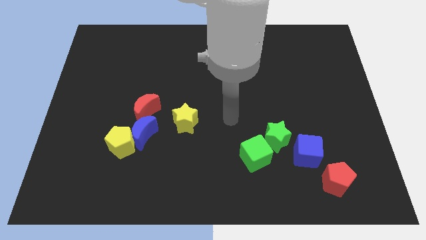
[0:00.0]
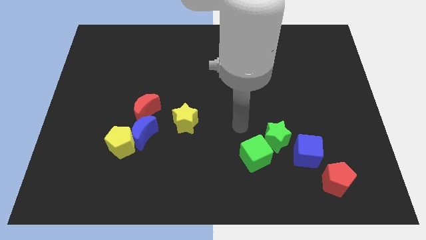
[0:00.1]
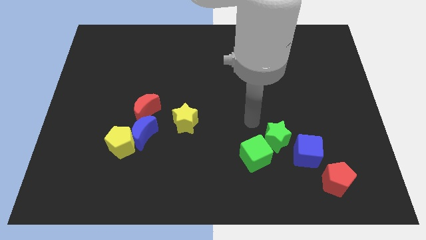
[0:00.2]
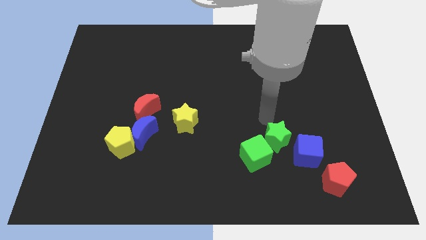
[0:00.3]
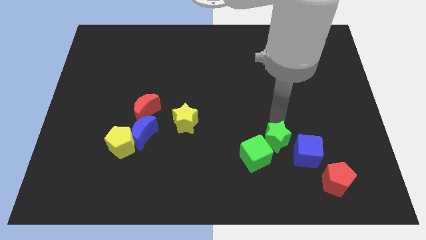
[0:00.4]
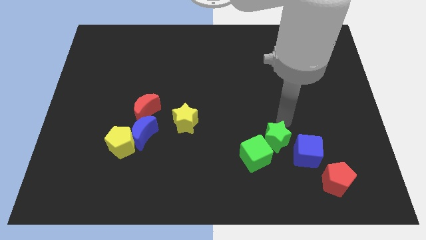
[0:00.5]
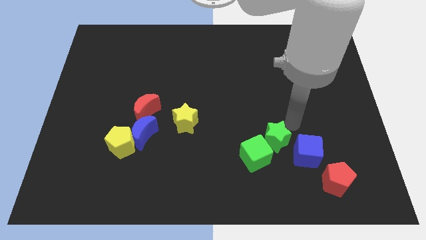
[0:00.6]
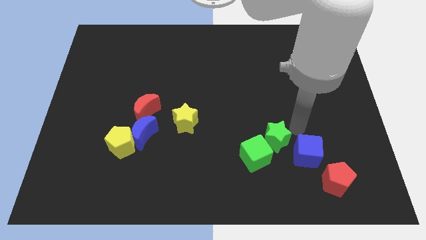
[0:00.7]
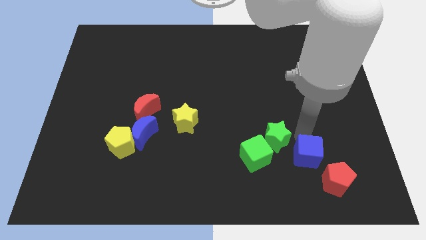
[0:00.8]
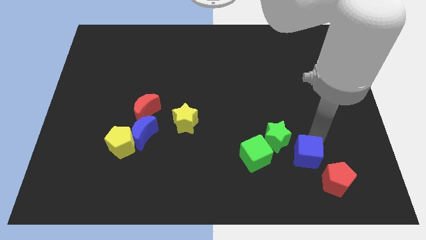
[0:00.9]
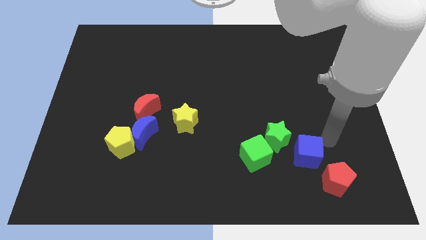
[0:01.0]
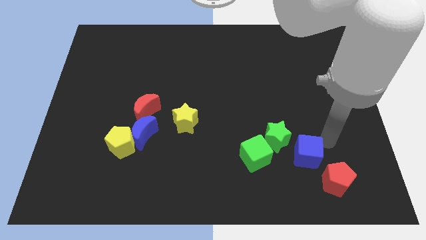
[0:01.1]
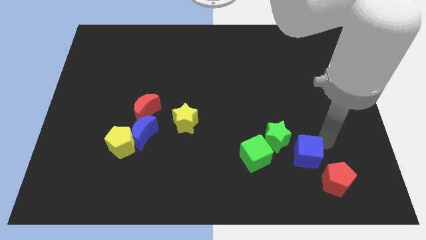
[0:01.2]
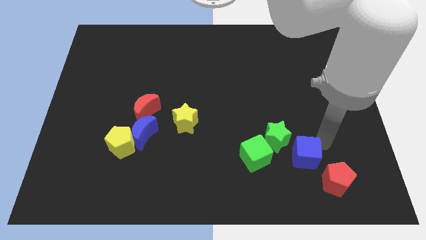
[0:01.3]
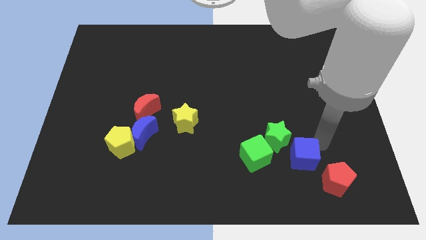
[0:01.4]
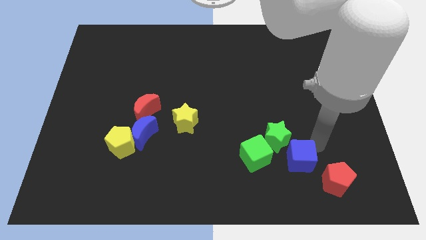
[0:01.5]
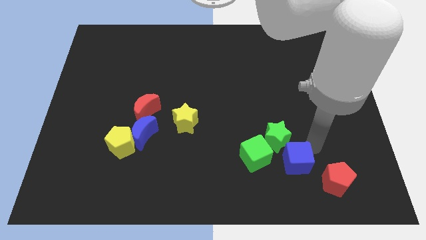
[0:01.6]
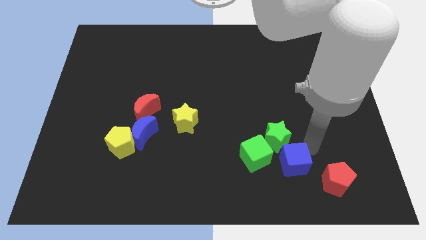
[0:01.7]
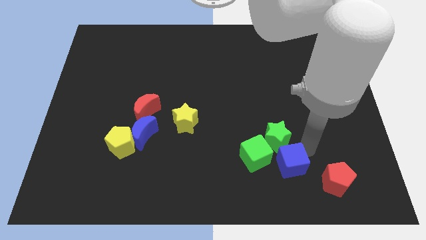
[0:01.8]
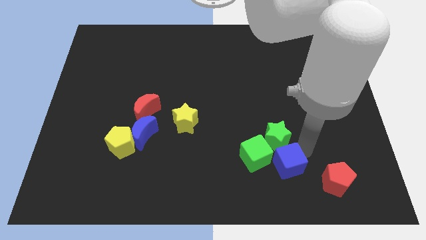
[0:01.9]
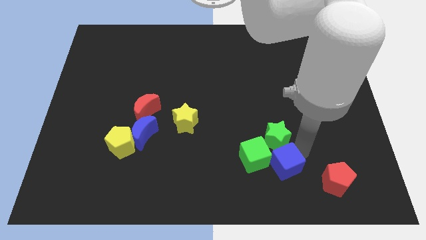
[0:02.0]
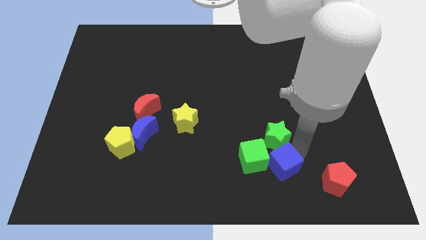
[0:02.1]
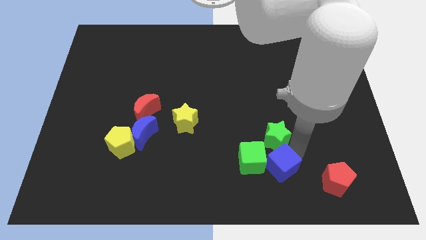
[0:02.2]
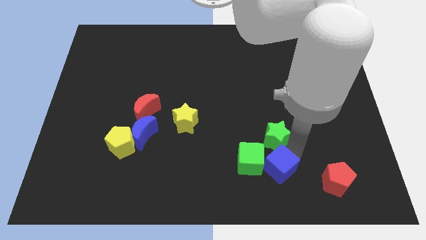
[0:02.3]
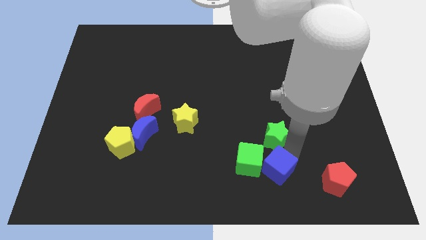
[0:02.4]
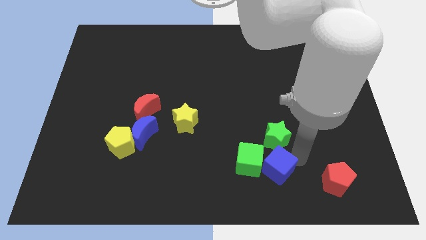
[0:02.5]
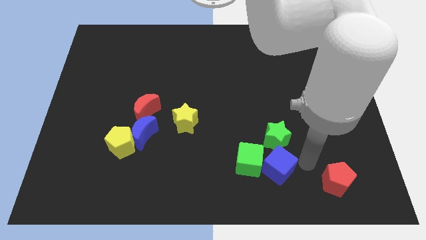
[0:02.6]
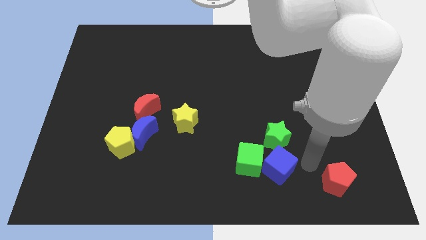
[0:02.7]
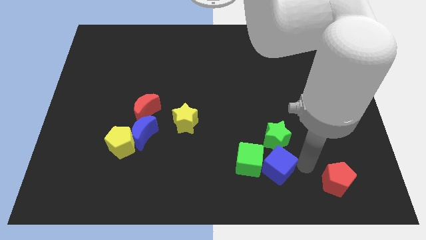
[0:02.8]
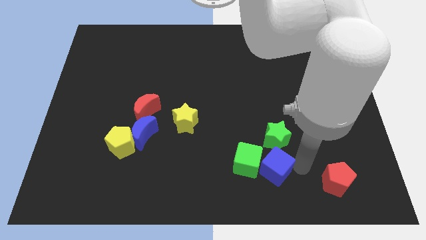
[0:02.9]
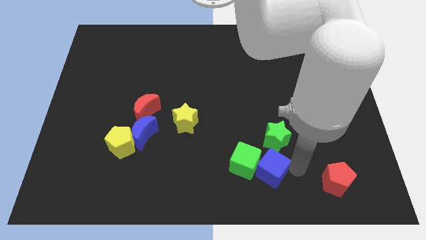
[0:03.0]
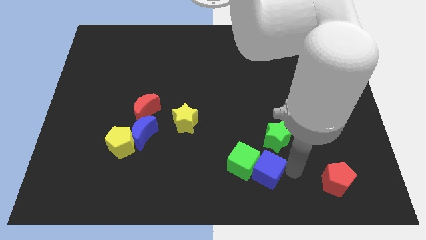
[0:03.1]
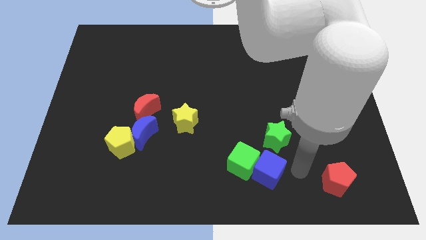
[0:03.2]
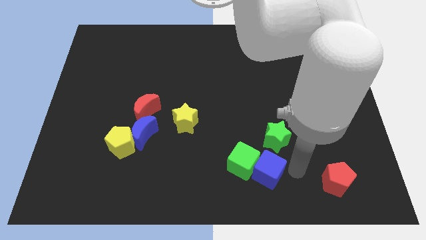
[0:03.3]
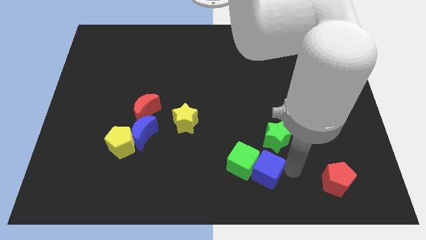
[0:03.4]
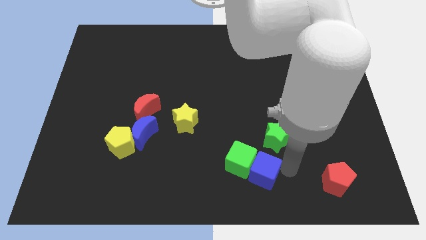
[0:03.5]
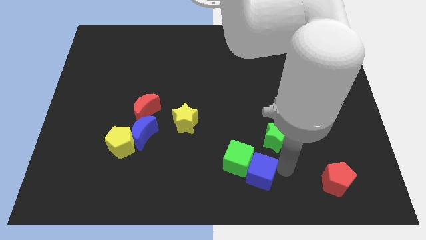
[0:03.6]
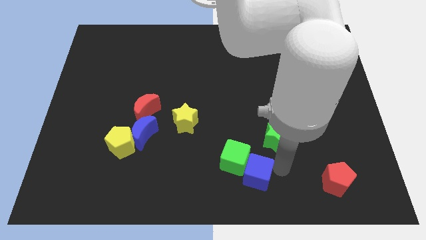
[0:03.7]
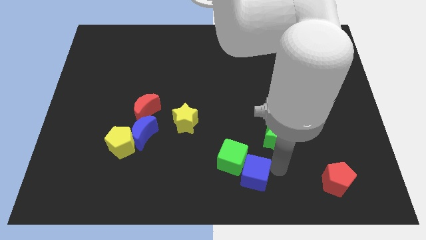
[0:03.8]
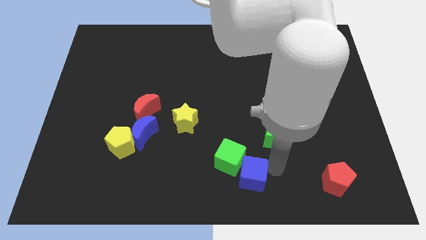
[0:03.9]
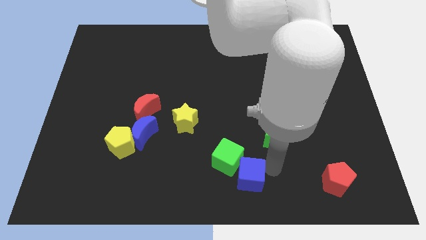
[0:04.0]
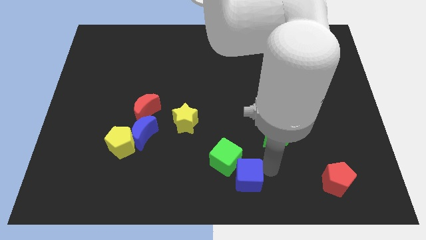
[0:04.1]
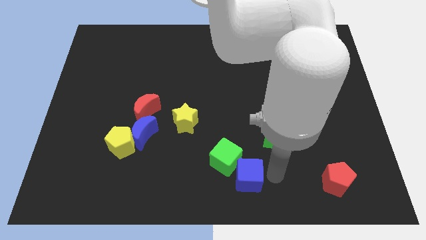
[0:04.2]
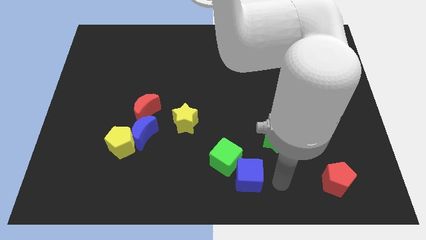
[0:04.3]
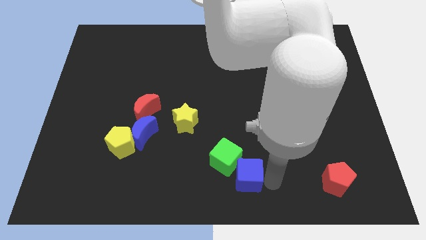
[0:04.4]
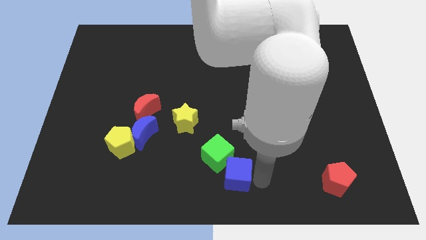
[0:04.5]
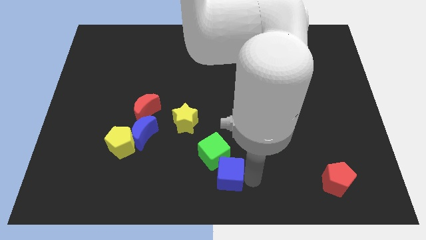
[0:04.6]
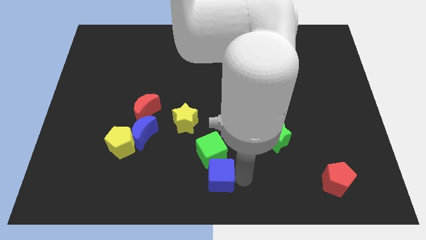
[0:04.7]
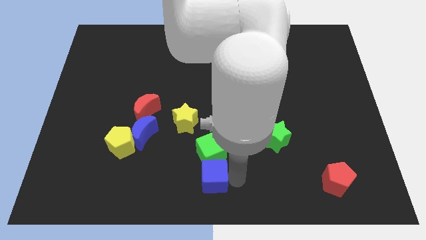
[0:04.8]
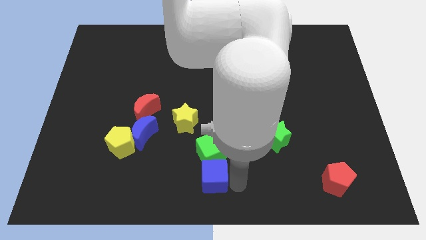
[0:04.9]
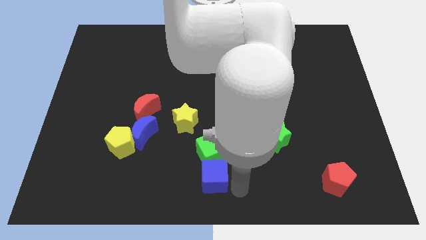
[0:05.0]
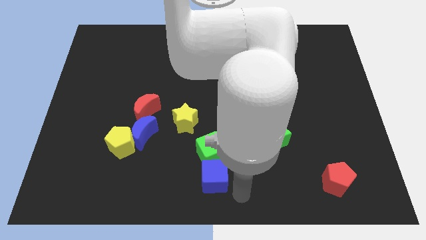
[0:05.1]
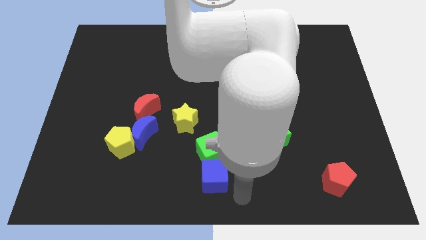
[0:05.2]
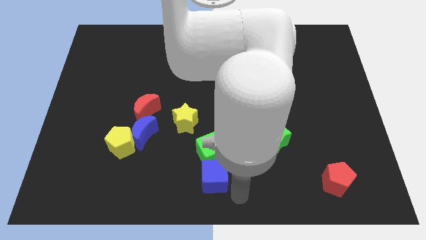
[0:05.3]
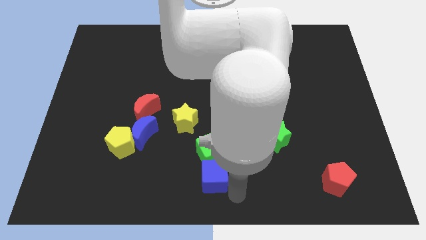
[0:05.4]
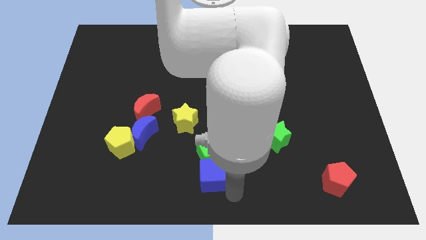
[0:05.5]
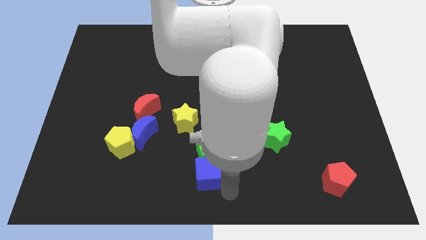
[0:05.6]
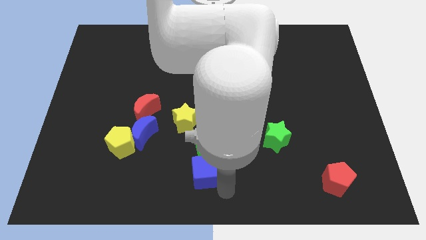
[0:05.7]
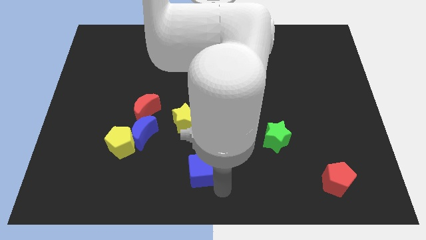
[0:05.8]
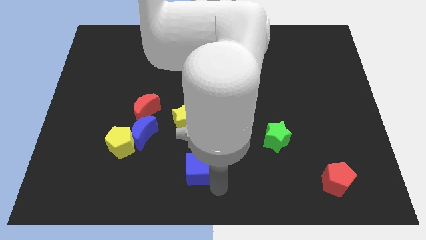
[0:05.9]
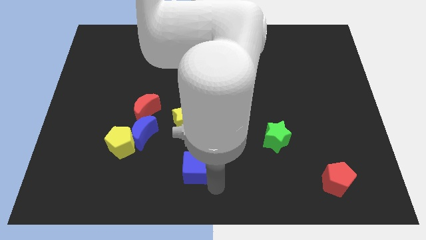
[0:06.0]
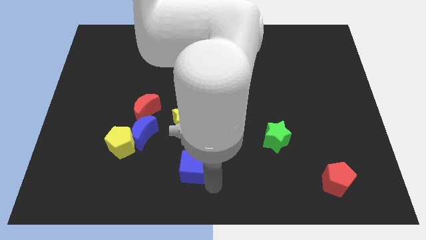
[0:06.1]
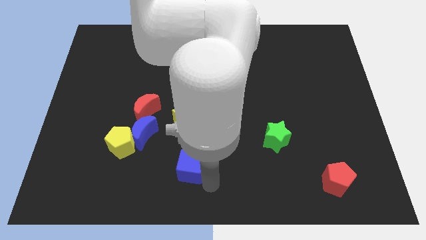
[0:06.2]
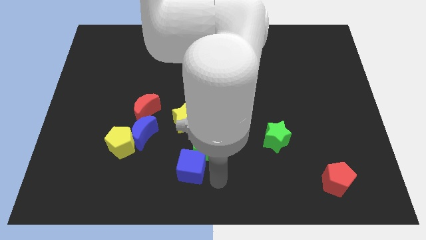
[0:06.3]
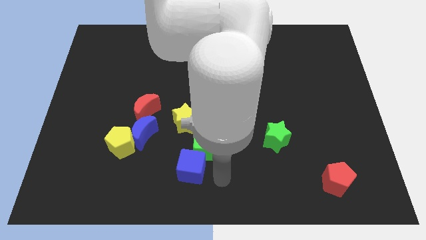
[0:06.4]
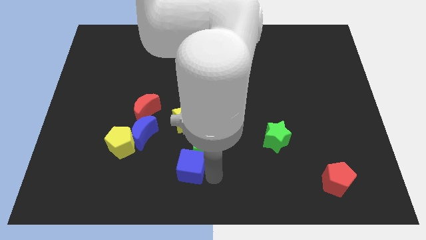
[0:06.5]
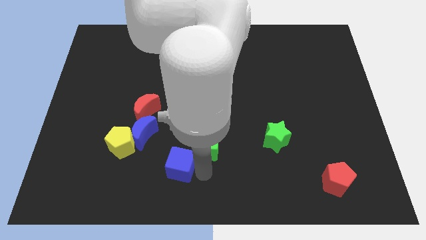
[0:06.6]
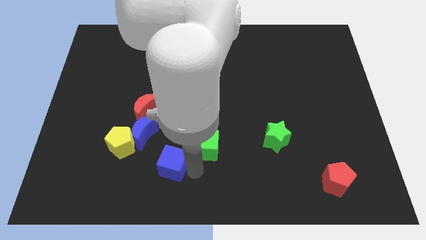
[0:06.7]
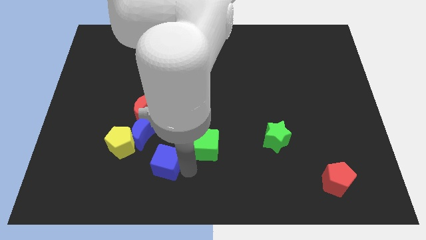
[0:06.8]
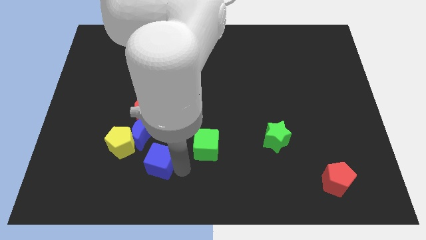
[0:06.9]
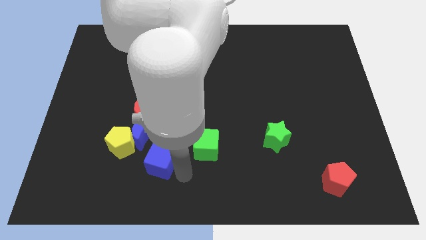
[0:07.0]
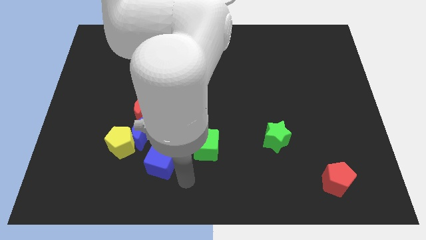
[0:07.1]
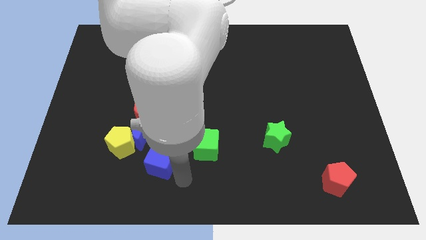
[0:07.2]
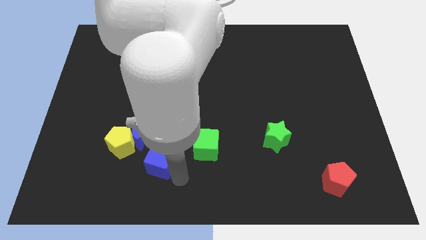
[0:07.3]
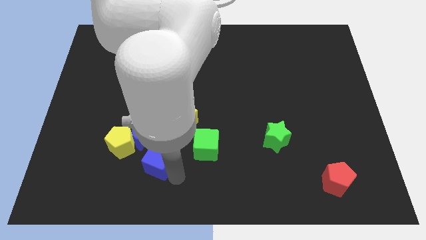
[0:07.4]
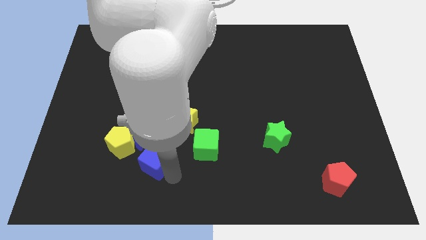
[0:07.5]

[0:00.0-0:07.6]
push the blue cube to the bottom side of the red moon

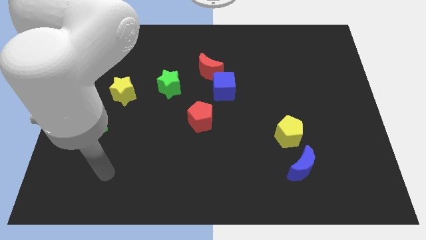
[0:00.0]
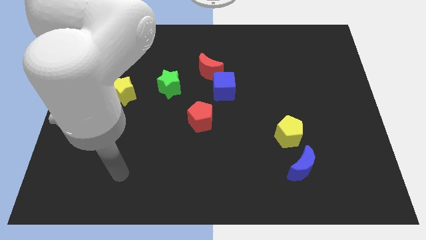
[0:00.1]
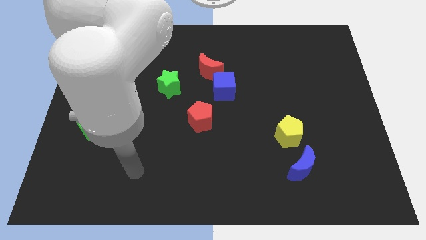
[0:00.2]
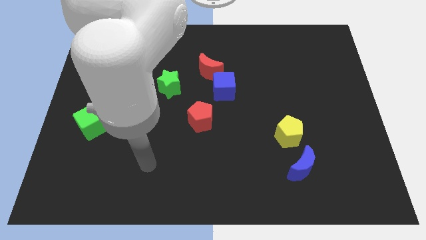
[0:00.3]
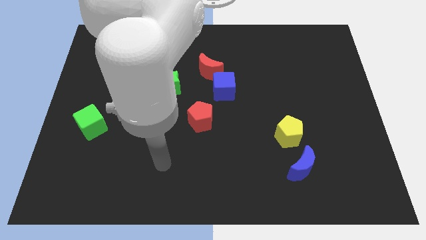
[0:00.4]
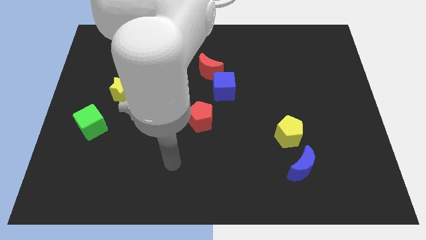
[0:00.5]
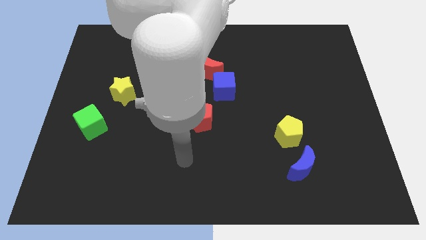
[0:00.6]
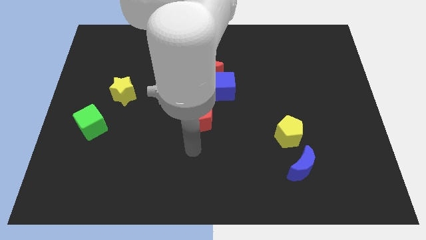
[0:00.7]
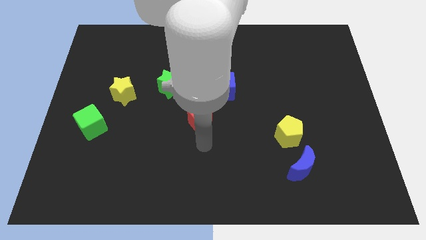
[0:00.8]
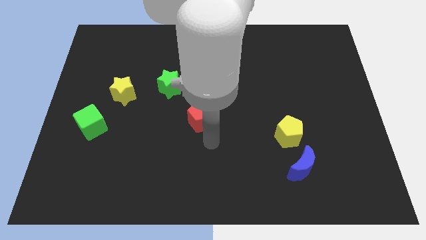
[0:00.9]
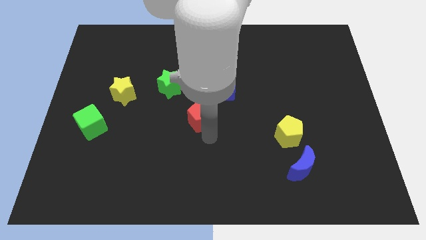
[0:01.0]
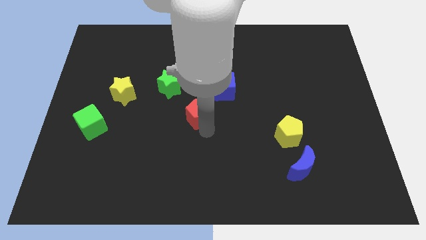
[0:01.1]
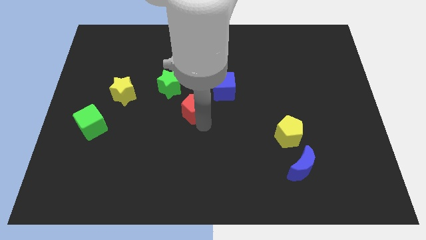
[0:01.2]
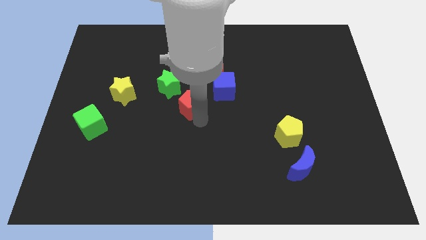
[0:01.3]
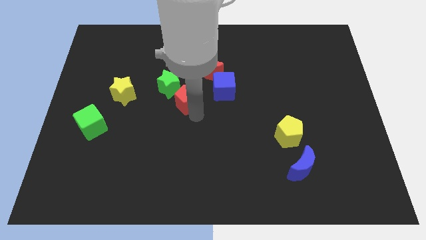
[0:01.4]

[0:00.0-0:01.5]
slide the red pentagon to the bottom left side of the red moon
